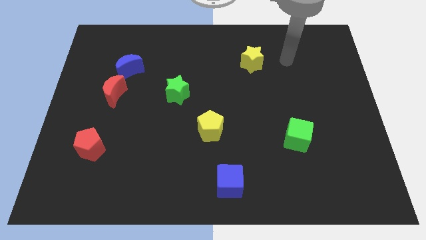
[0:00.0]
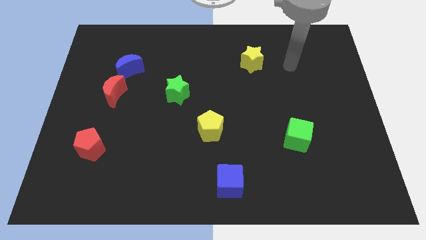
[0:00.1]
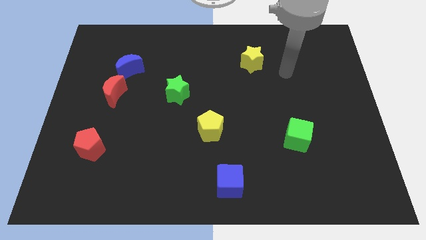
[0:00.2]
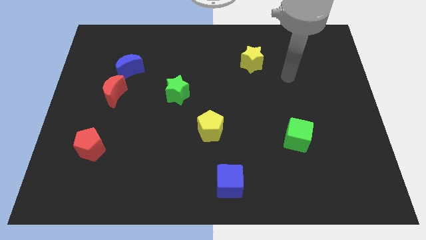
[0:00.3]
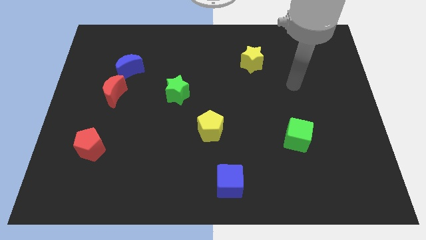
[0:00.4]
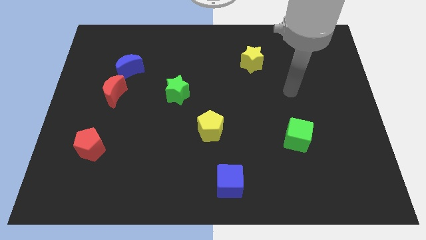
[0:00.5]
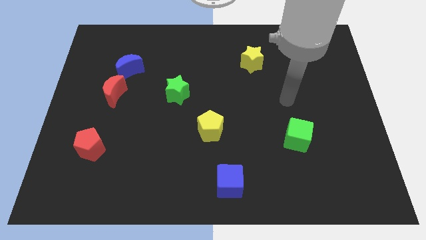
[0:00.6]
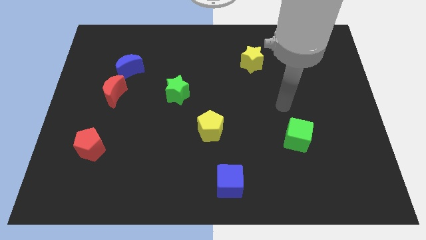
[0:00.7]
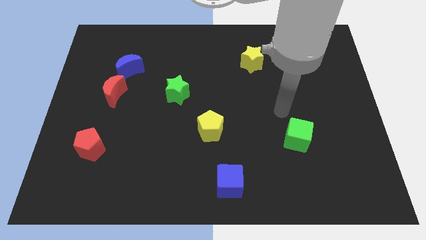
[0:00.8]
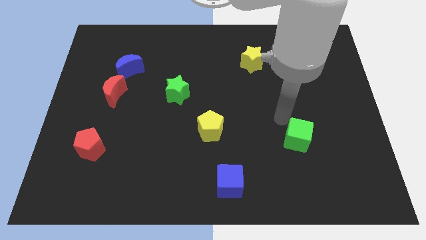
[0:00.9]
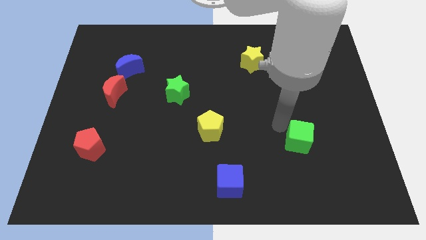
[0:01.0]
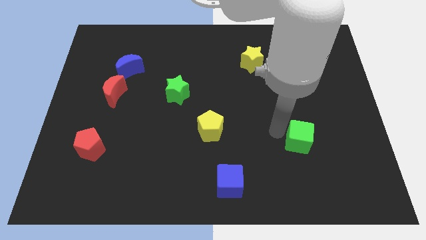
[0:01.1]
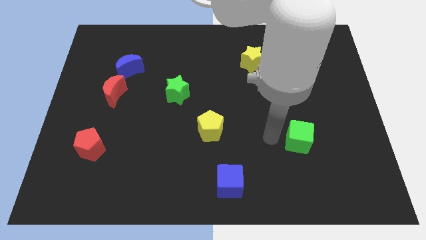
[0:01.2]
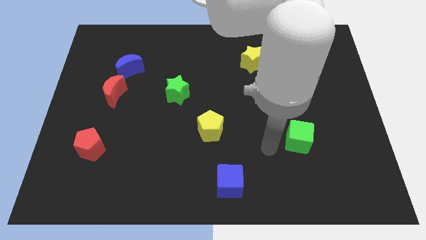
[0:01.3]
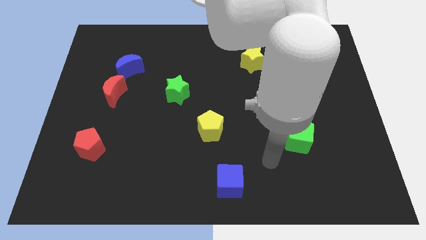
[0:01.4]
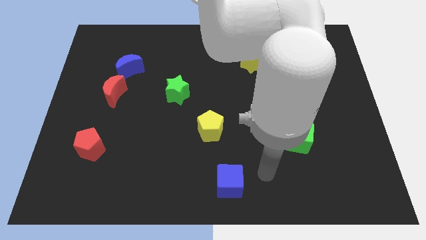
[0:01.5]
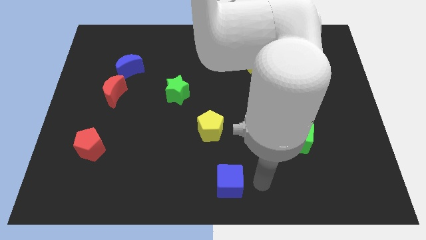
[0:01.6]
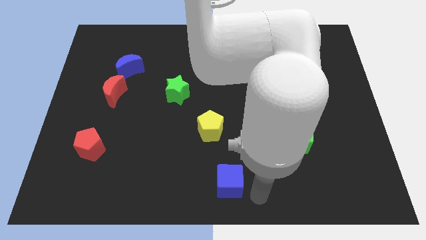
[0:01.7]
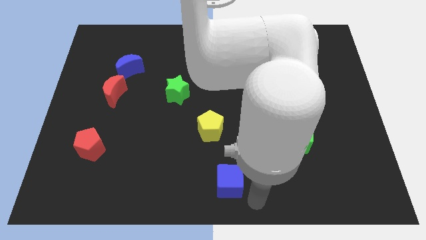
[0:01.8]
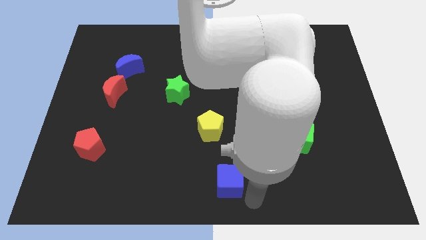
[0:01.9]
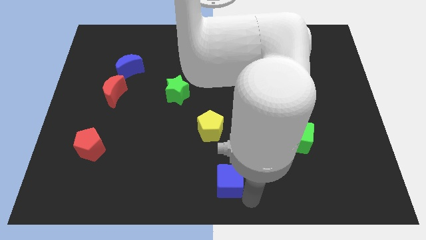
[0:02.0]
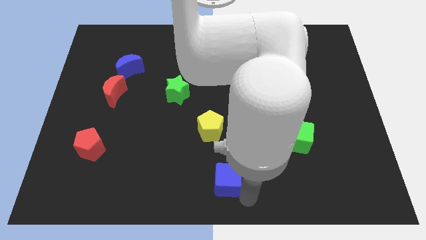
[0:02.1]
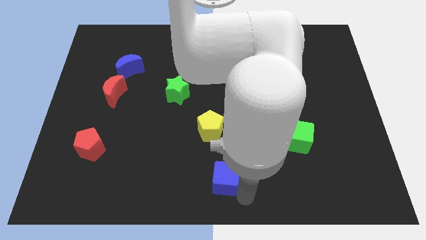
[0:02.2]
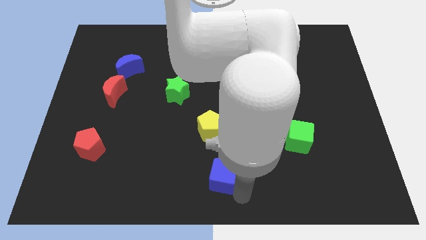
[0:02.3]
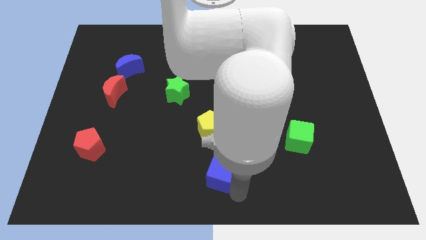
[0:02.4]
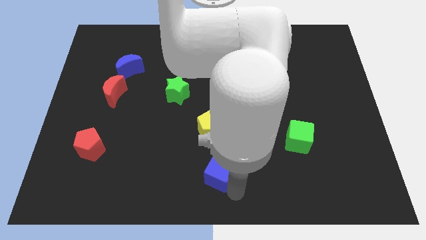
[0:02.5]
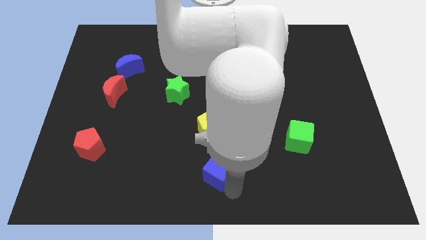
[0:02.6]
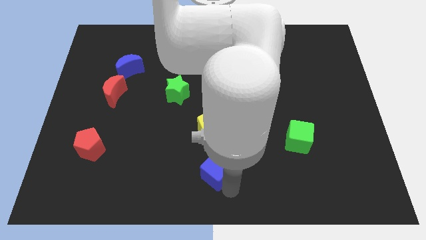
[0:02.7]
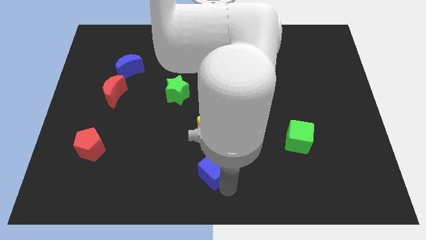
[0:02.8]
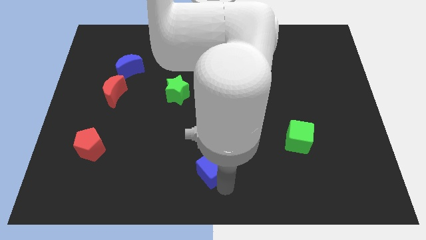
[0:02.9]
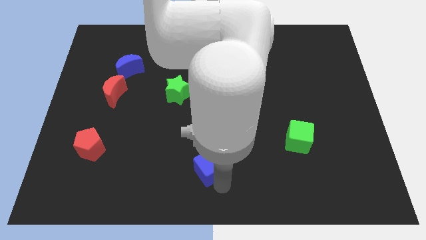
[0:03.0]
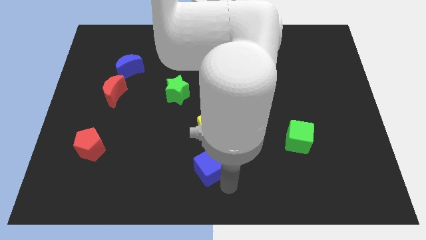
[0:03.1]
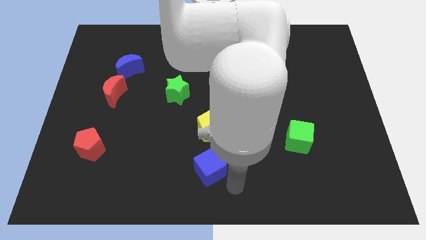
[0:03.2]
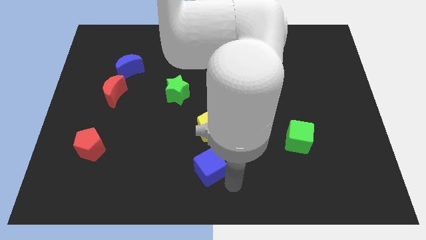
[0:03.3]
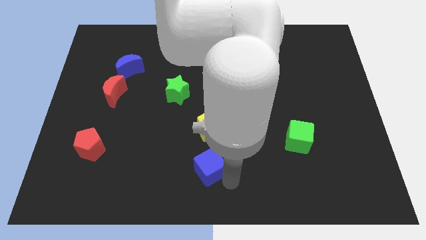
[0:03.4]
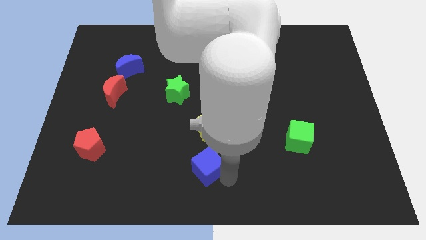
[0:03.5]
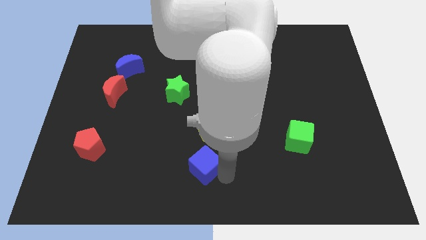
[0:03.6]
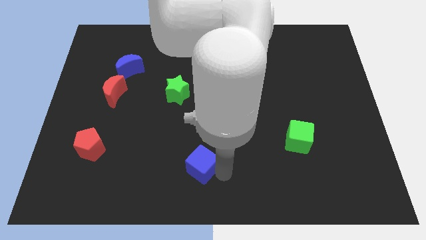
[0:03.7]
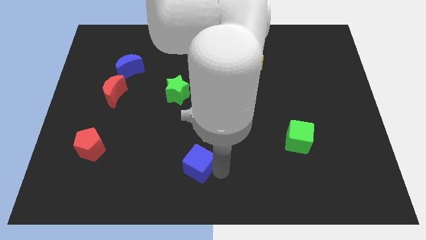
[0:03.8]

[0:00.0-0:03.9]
slide the blue cube diagonally up and to the left a little

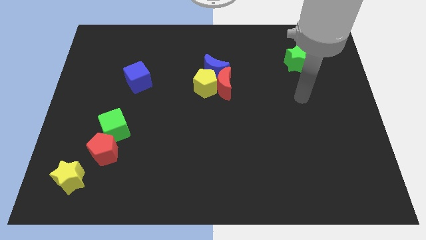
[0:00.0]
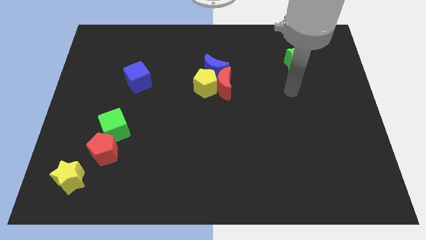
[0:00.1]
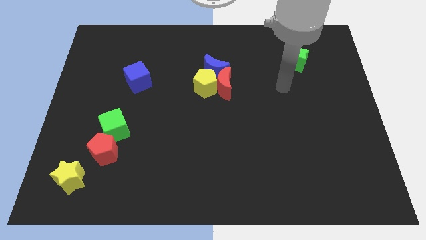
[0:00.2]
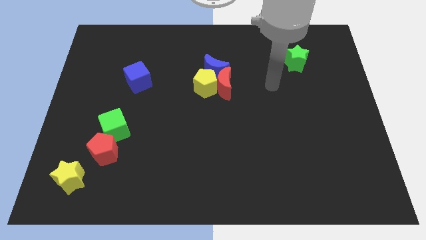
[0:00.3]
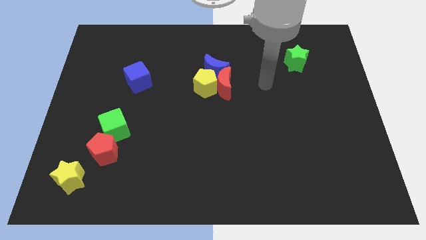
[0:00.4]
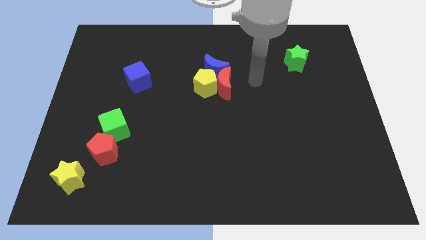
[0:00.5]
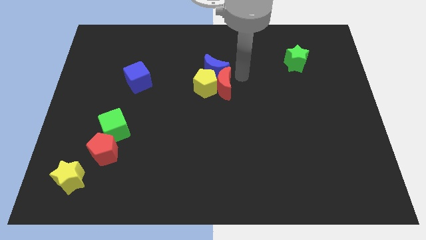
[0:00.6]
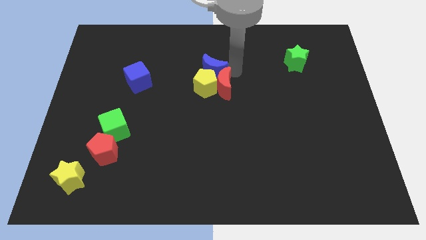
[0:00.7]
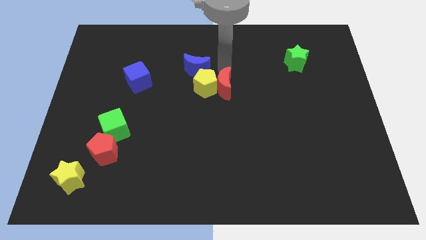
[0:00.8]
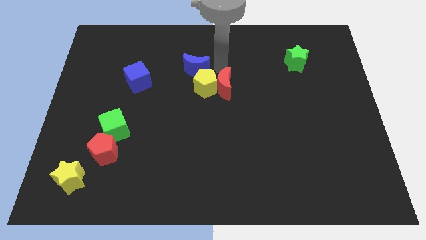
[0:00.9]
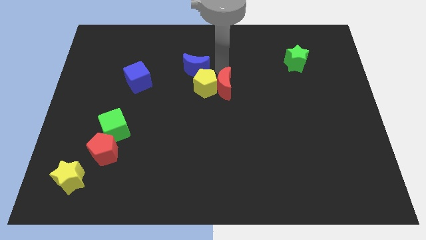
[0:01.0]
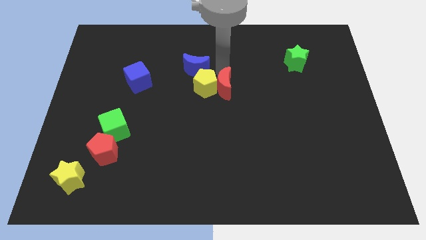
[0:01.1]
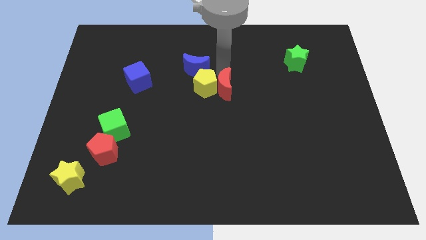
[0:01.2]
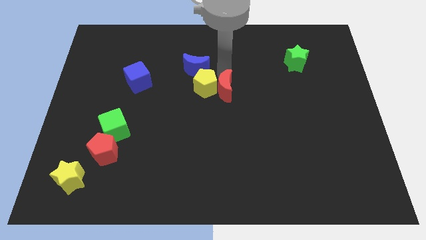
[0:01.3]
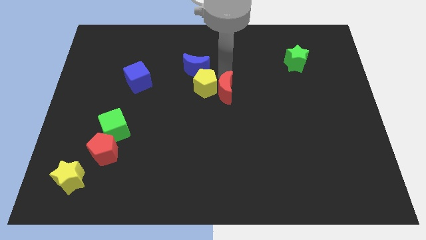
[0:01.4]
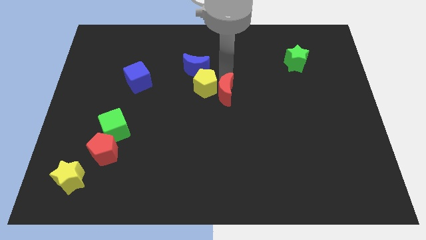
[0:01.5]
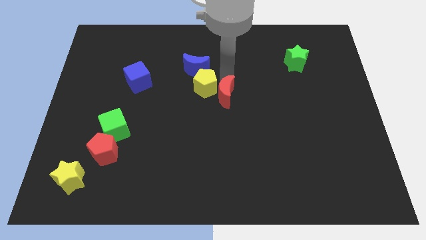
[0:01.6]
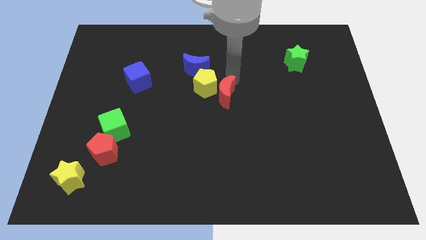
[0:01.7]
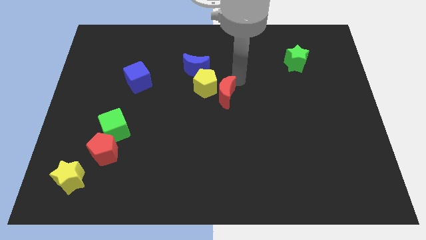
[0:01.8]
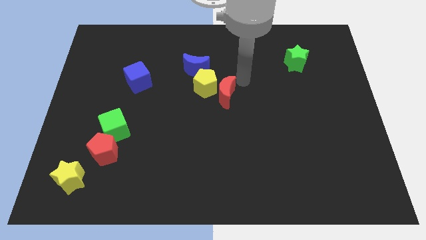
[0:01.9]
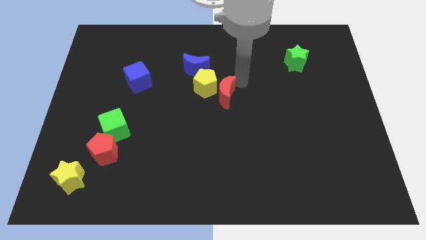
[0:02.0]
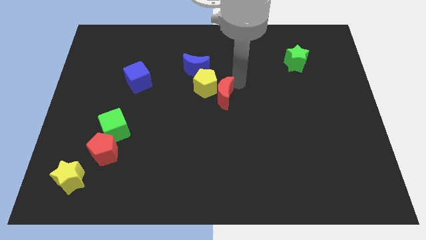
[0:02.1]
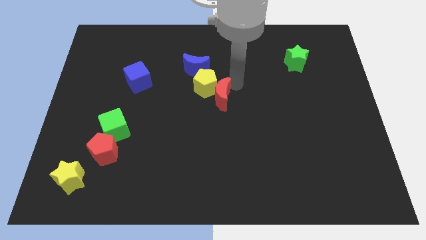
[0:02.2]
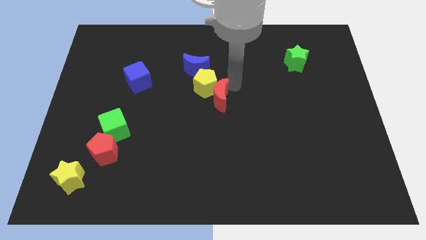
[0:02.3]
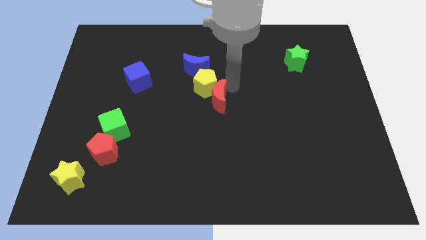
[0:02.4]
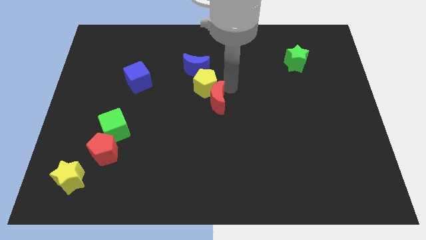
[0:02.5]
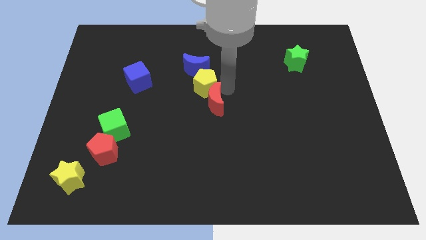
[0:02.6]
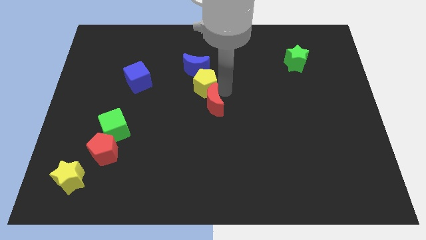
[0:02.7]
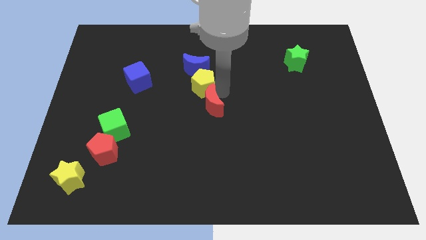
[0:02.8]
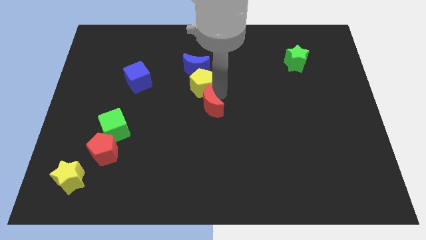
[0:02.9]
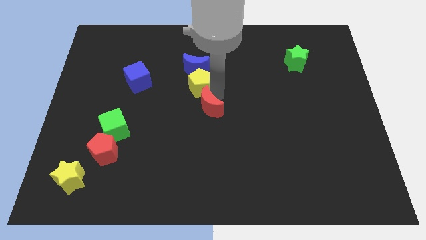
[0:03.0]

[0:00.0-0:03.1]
slide the red moon a bit down and left

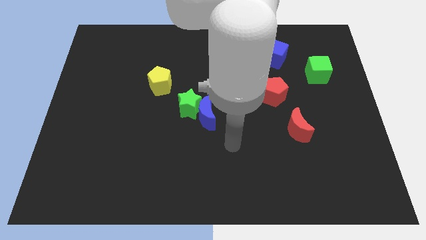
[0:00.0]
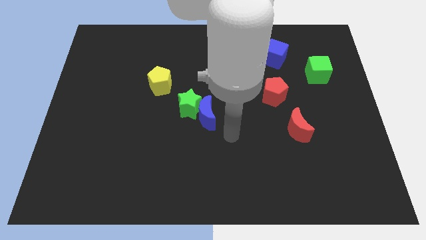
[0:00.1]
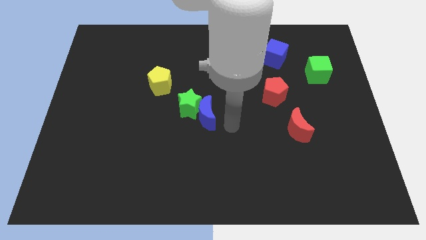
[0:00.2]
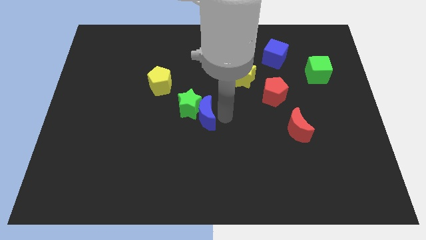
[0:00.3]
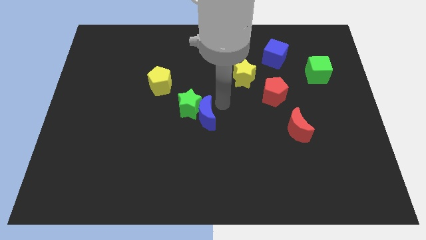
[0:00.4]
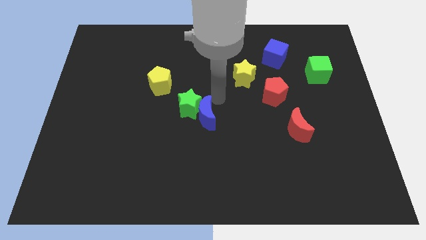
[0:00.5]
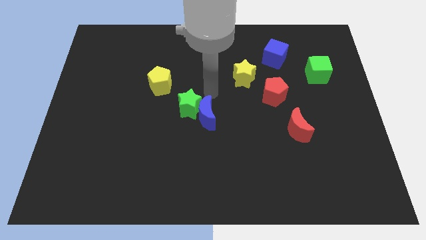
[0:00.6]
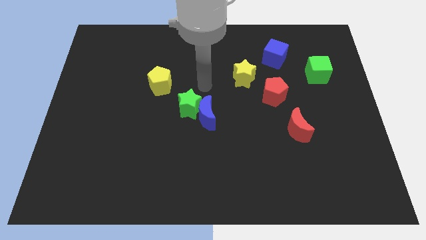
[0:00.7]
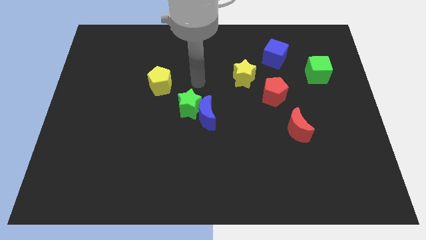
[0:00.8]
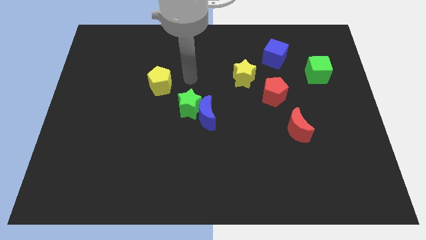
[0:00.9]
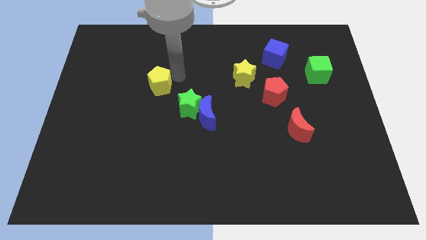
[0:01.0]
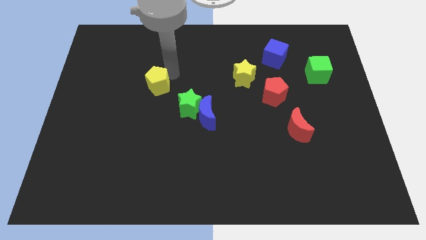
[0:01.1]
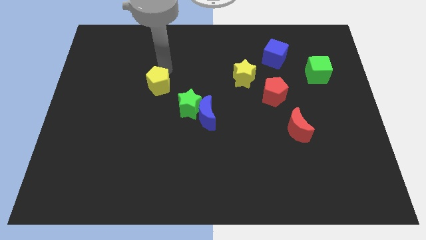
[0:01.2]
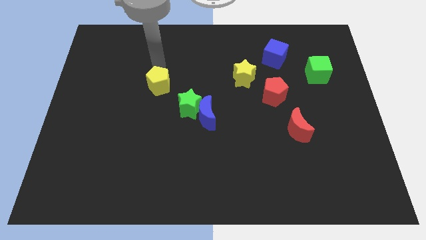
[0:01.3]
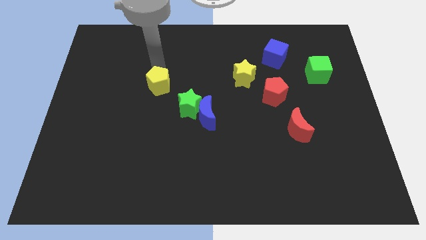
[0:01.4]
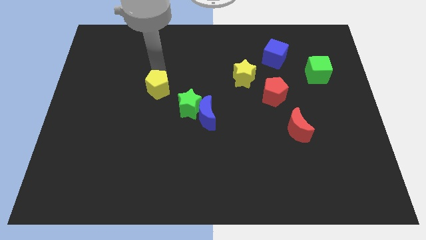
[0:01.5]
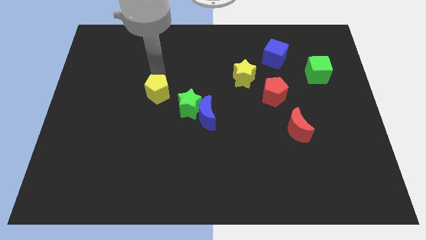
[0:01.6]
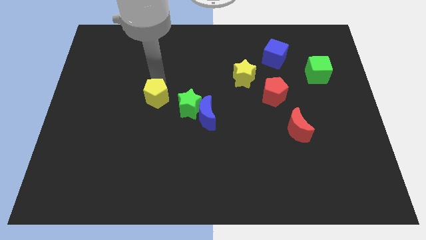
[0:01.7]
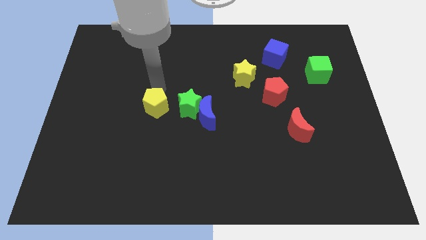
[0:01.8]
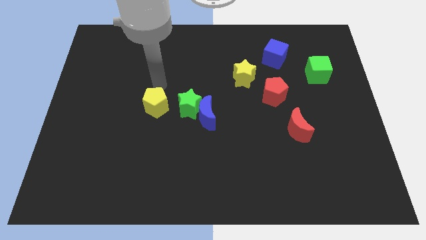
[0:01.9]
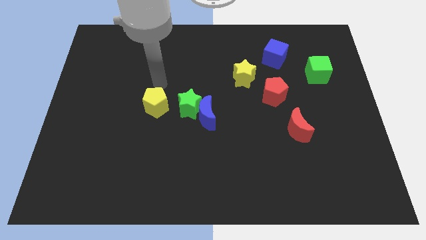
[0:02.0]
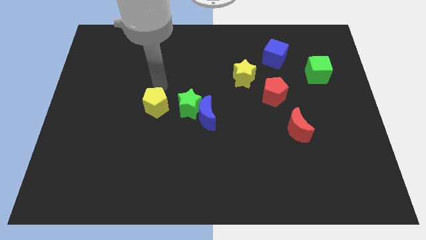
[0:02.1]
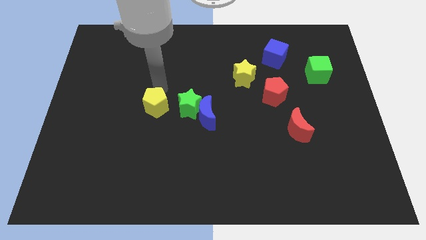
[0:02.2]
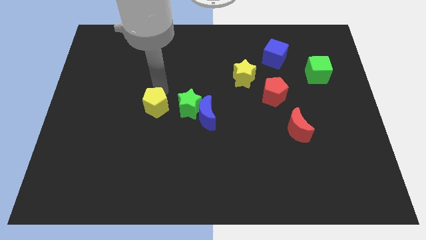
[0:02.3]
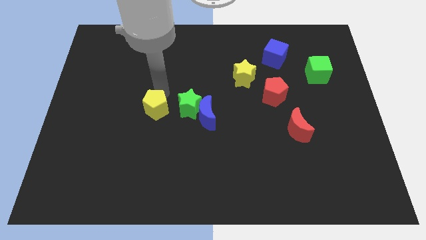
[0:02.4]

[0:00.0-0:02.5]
move the yellow pentagon a bit downwards
